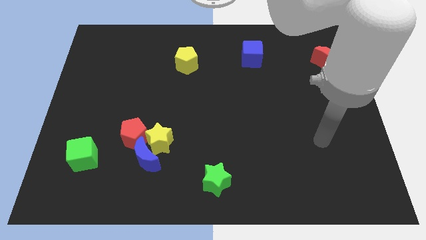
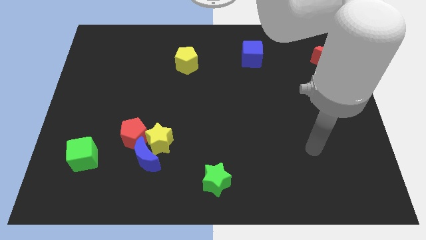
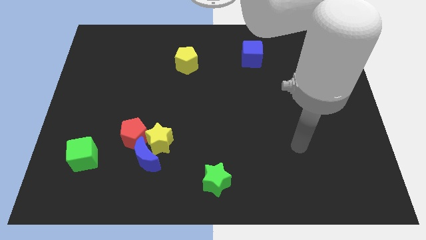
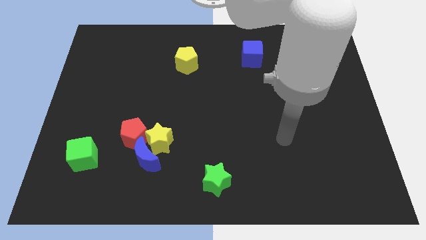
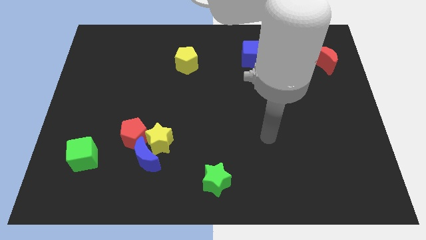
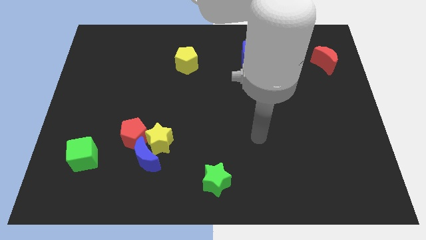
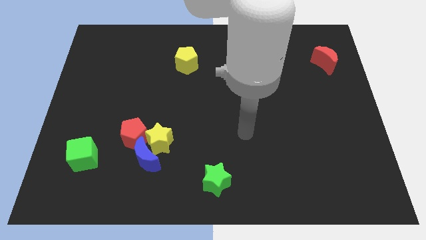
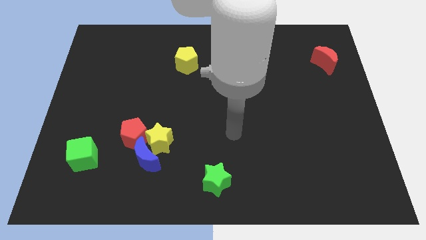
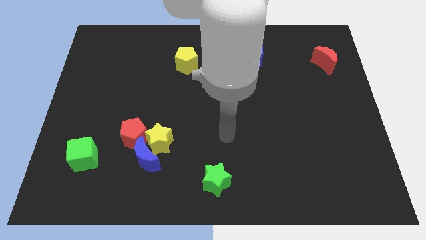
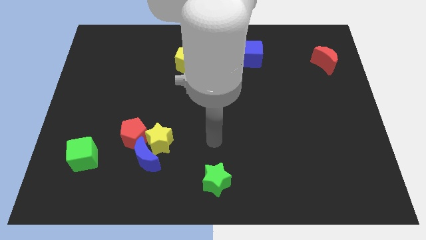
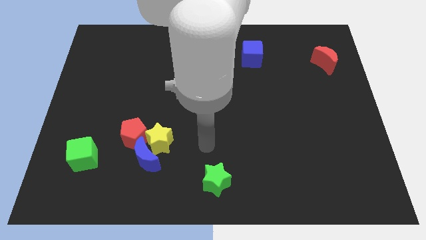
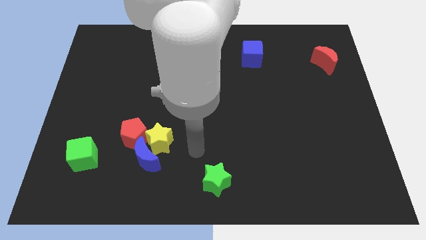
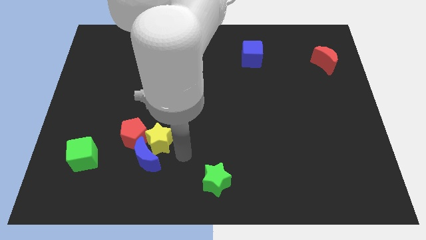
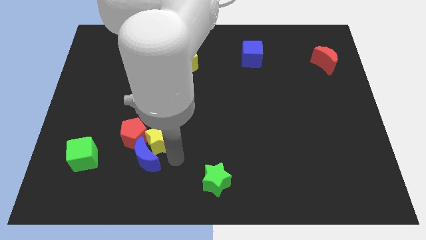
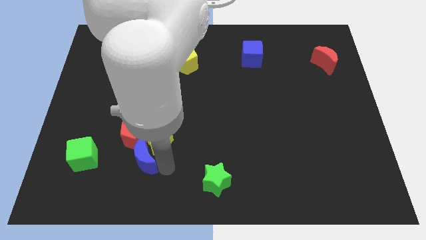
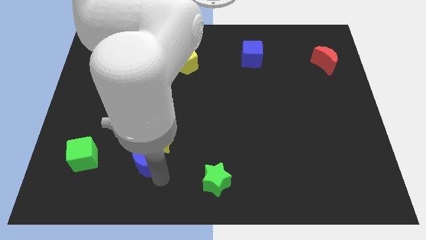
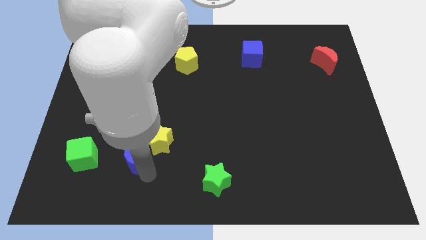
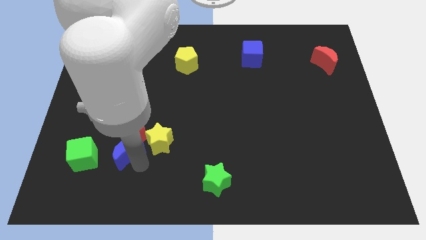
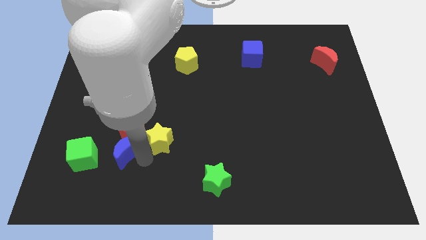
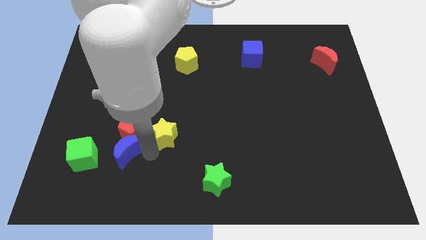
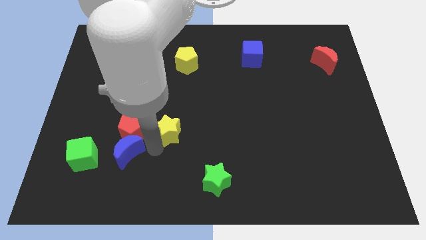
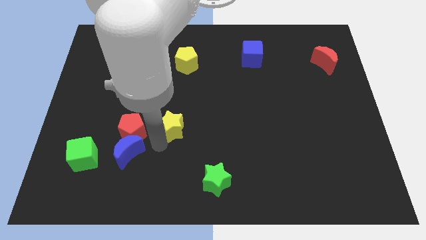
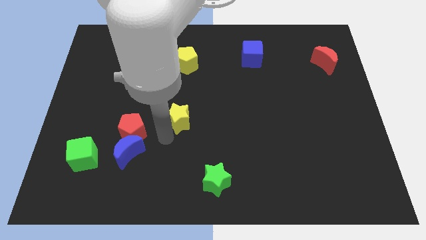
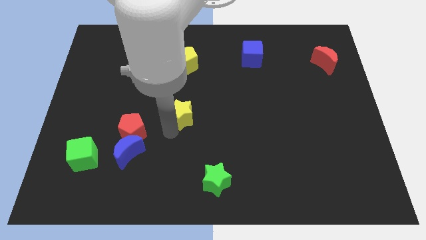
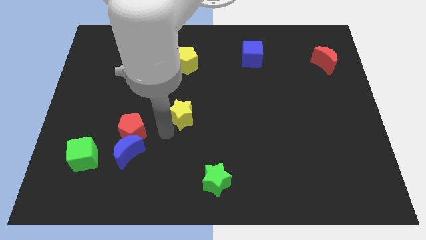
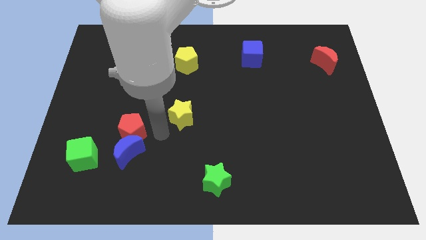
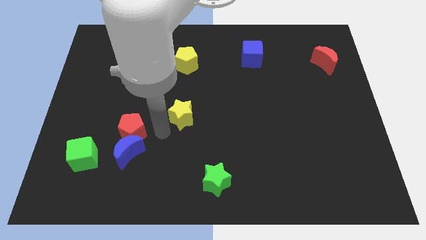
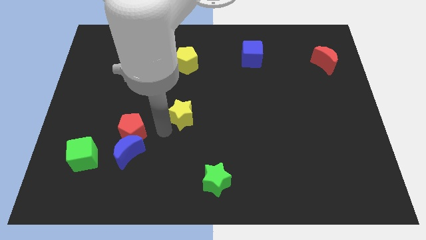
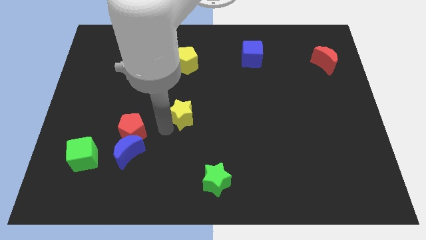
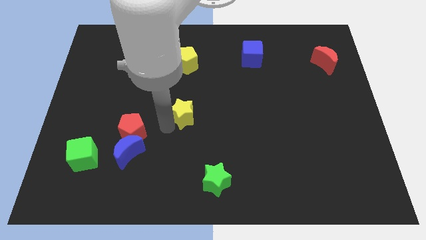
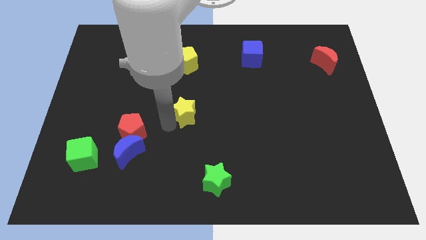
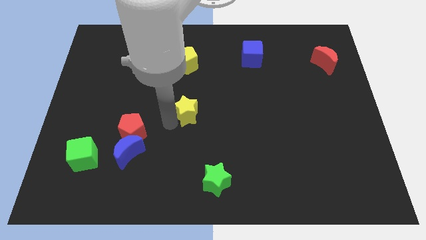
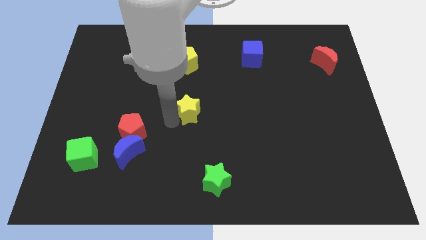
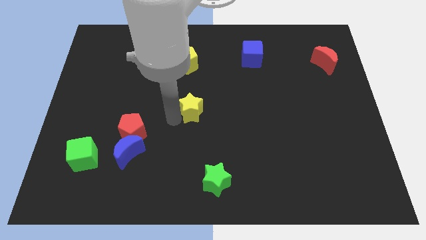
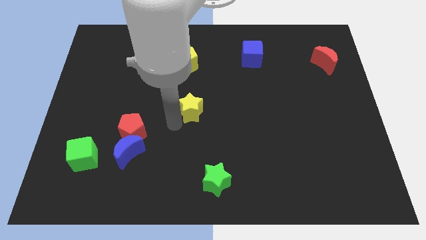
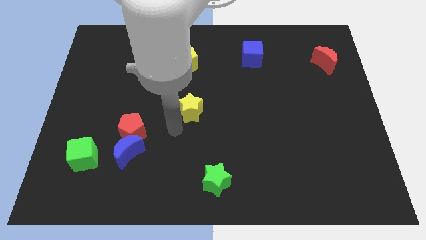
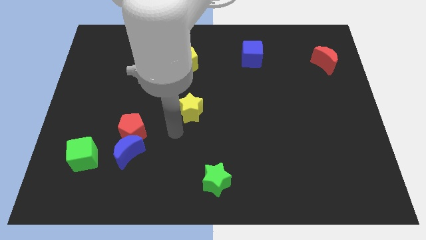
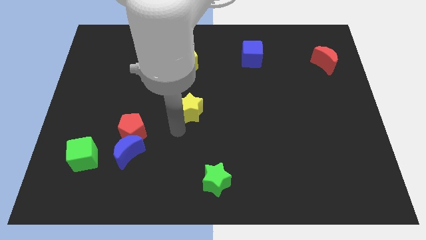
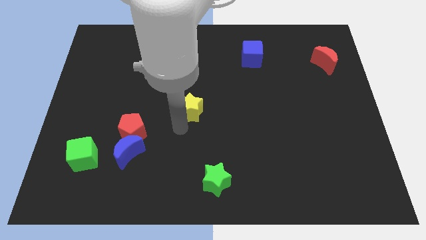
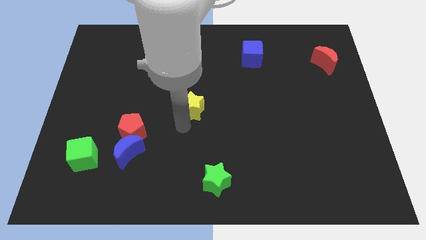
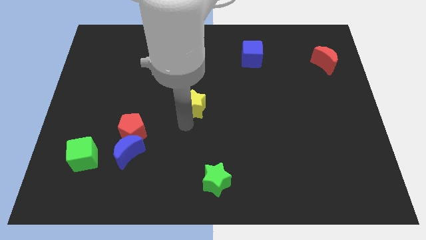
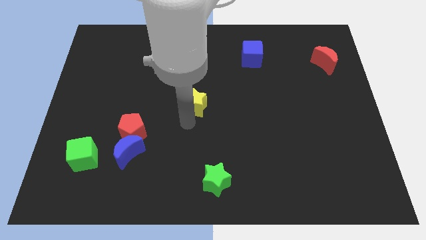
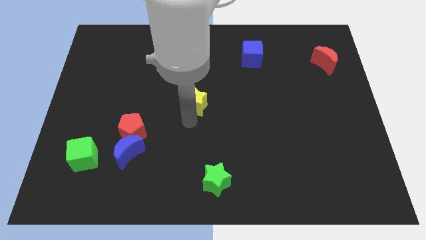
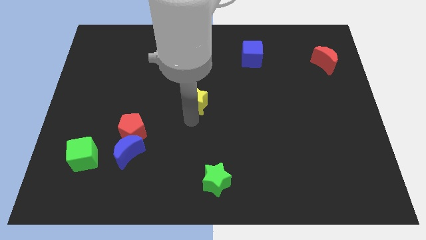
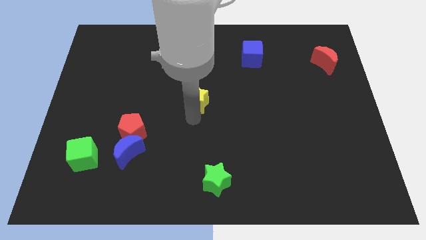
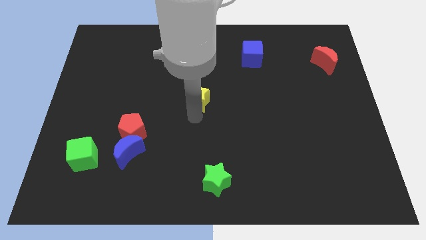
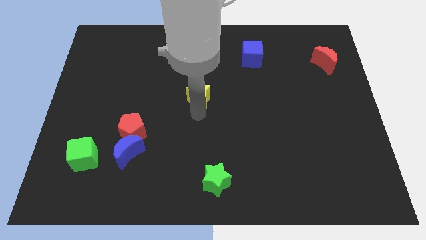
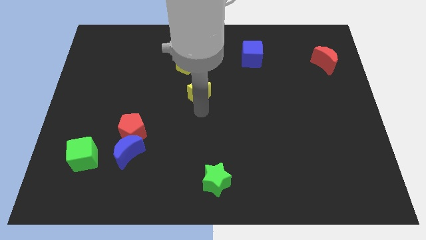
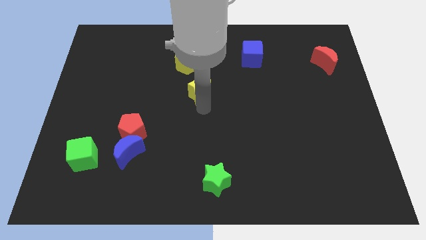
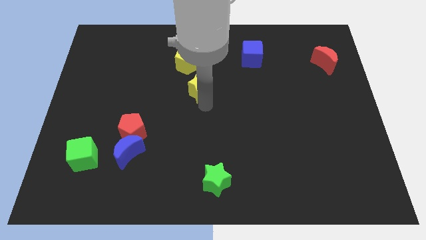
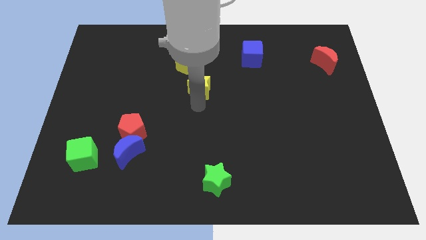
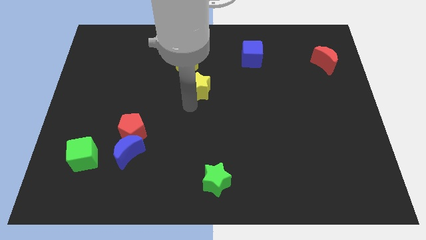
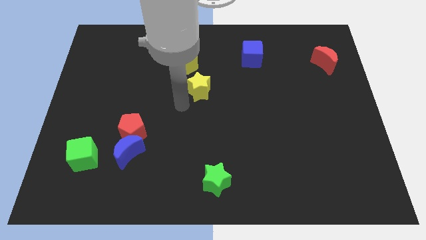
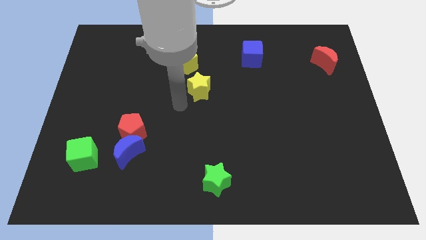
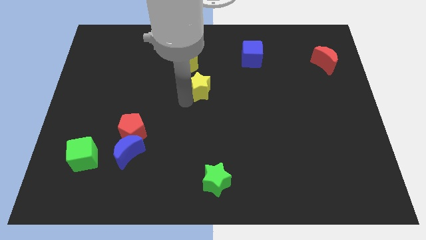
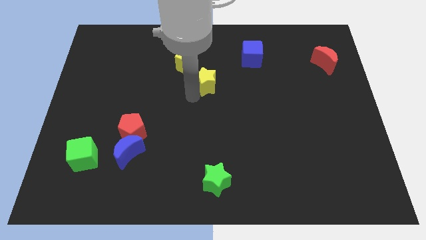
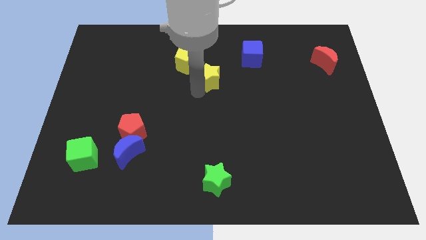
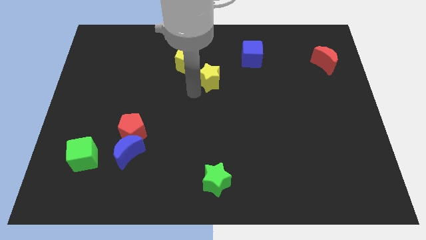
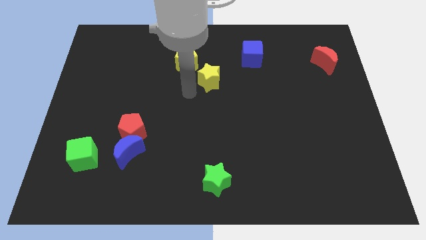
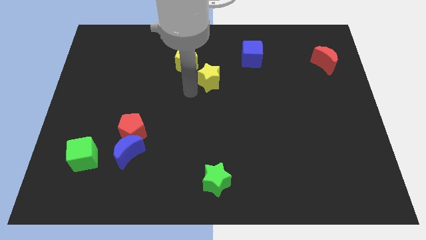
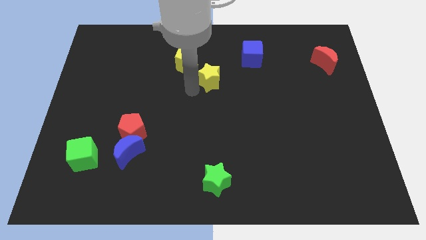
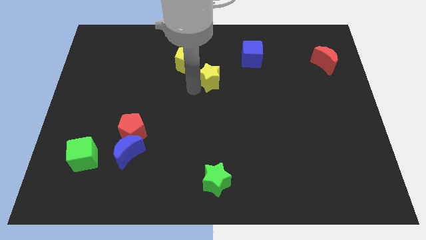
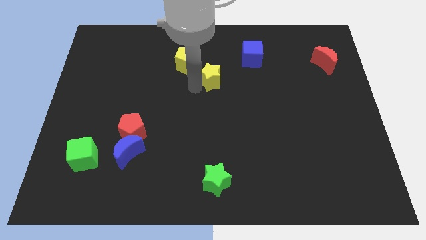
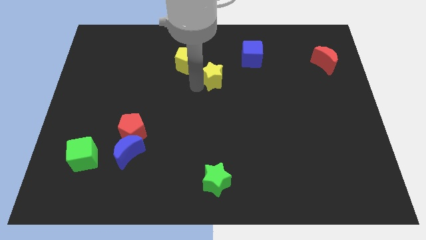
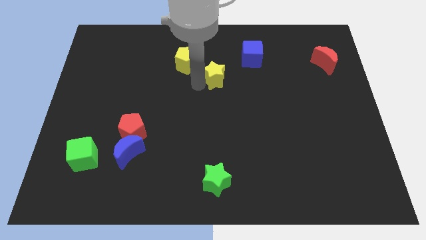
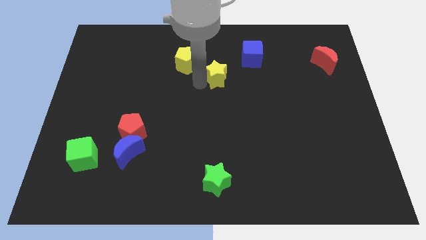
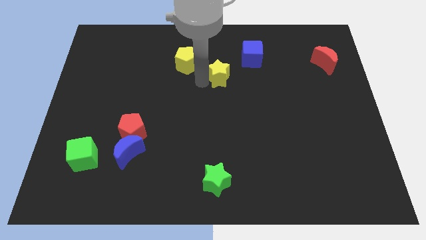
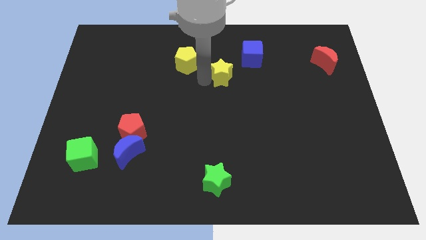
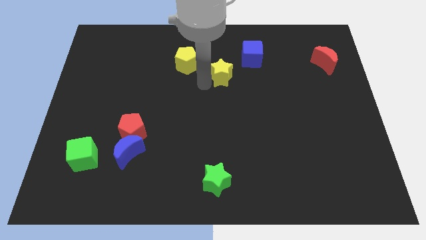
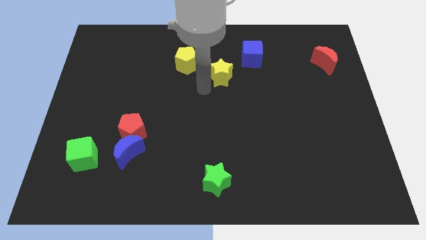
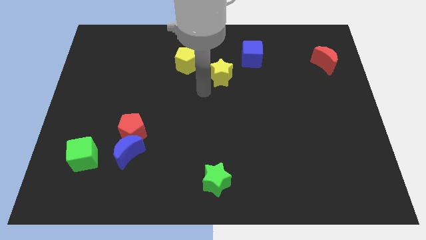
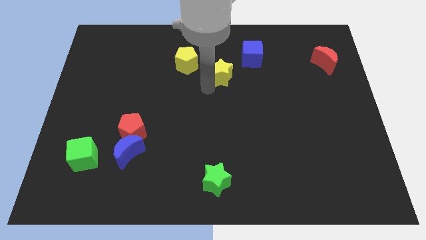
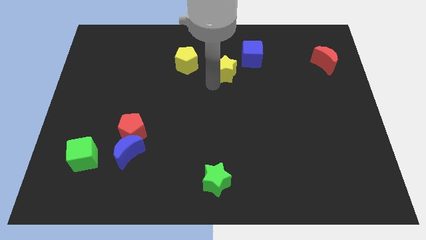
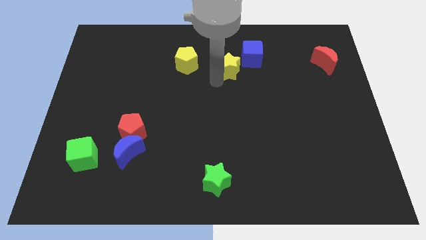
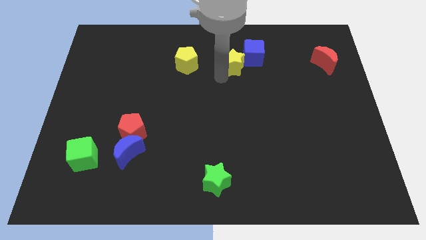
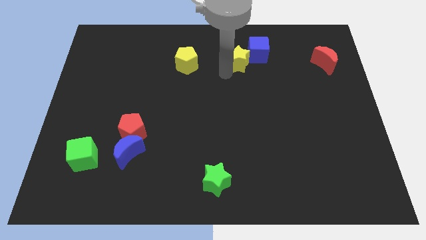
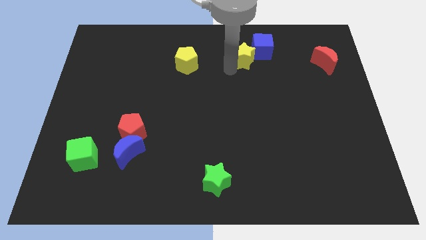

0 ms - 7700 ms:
push the yellow star close to the blue cube

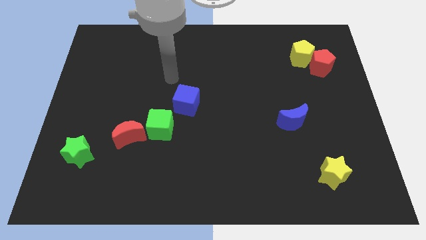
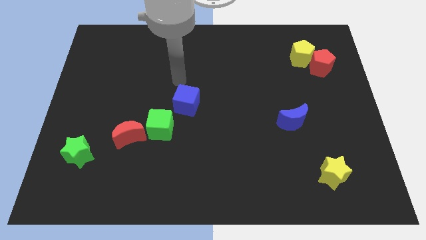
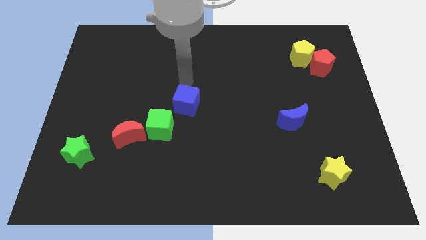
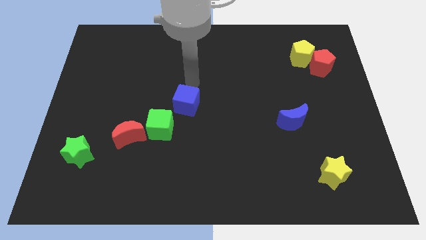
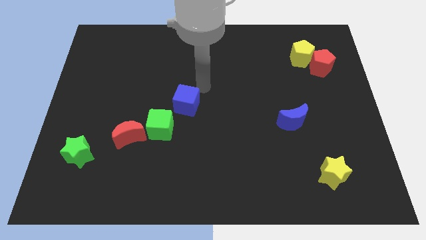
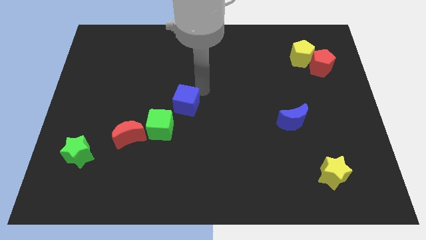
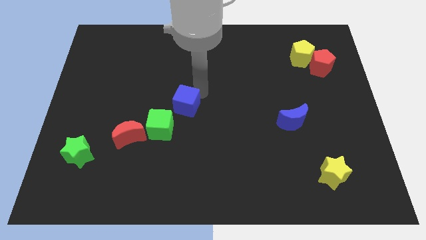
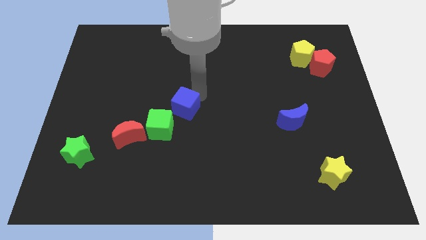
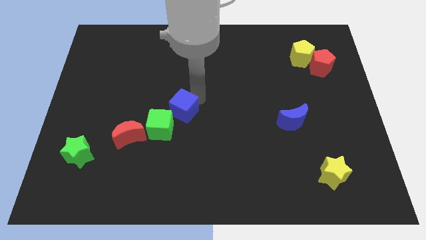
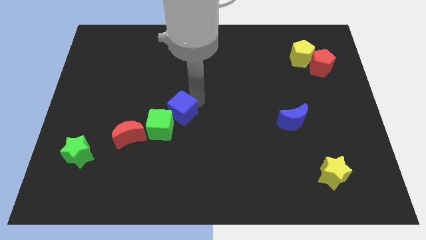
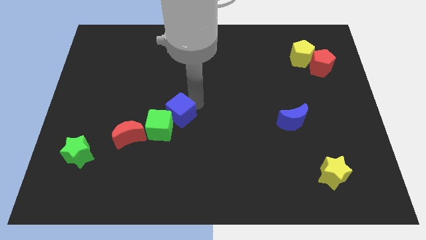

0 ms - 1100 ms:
put the blue cube close to the green cube
